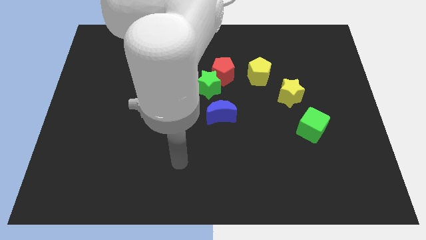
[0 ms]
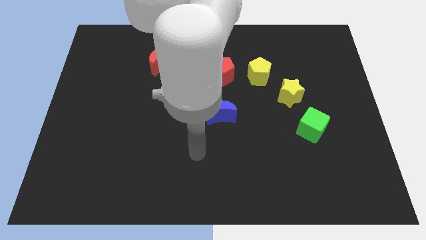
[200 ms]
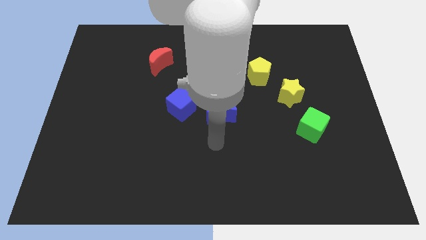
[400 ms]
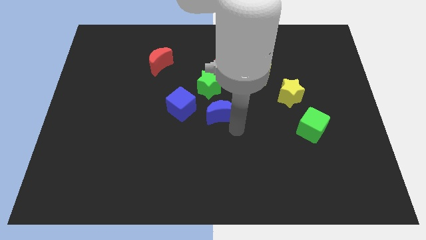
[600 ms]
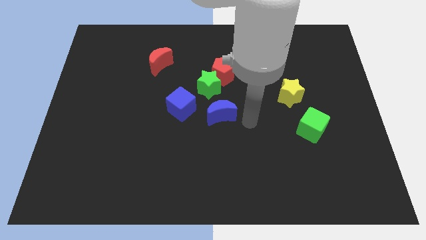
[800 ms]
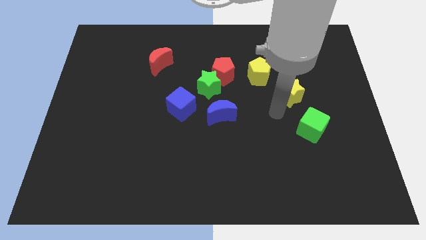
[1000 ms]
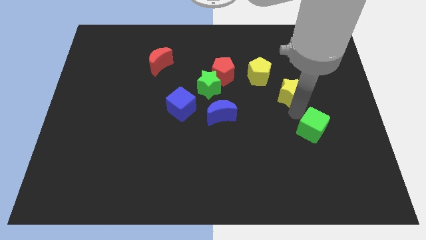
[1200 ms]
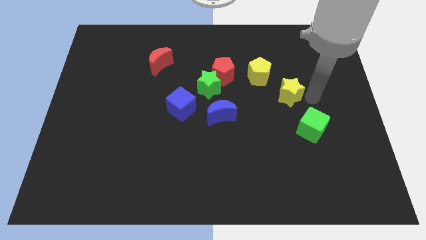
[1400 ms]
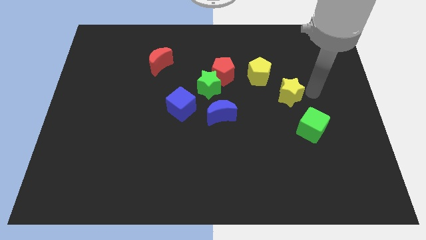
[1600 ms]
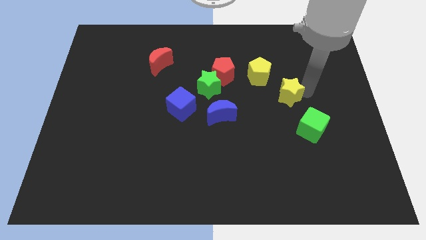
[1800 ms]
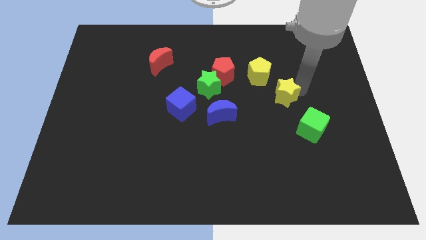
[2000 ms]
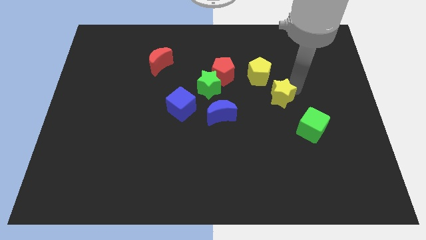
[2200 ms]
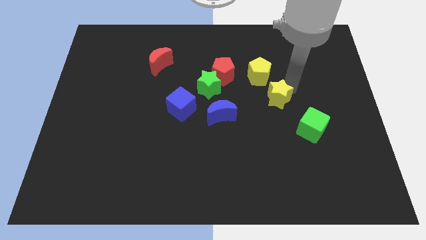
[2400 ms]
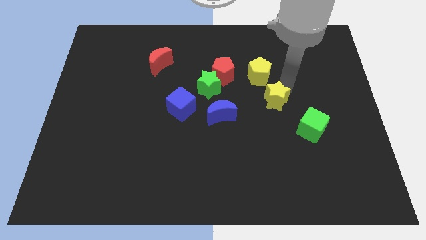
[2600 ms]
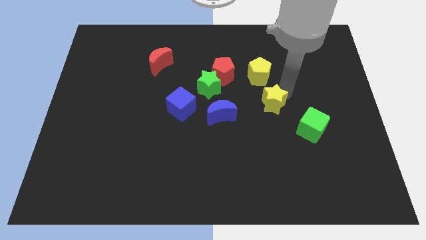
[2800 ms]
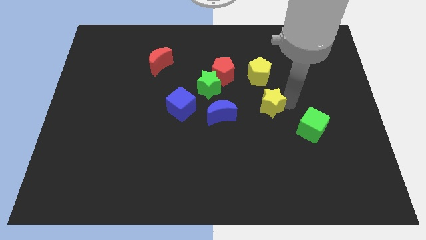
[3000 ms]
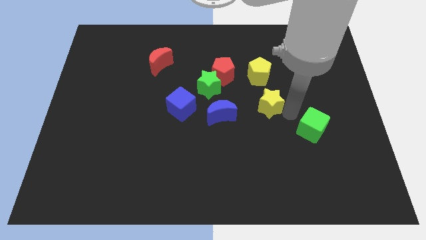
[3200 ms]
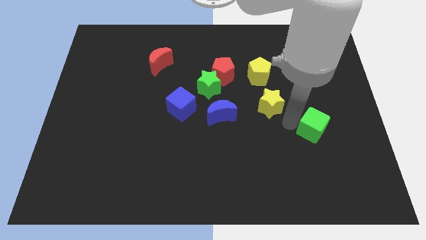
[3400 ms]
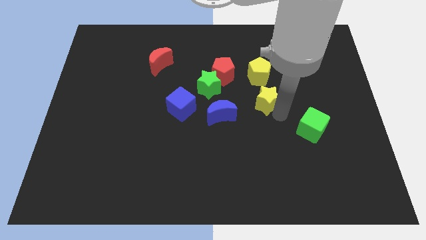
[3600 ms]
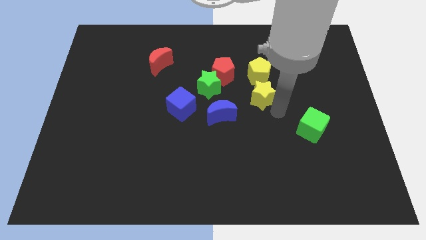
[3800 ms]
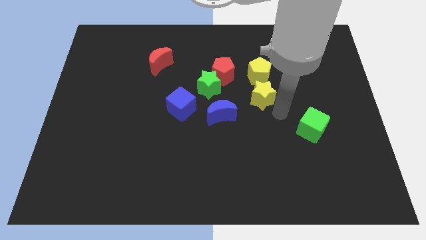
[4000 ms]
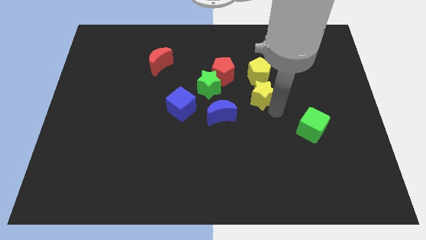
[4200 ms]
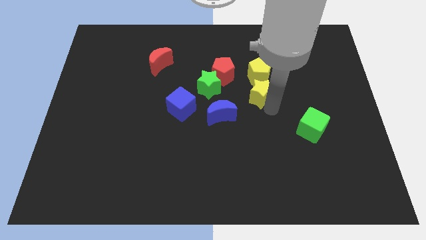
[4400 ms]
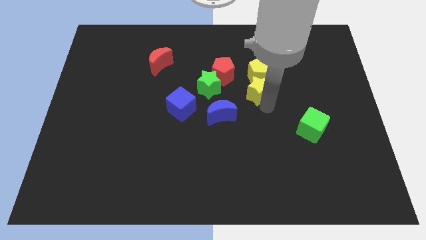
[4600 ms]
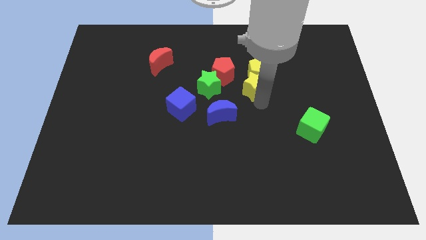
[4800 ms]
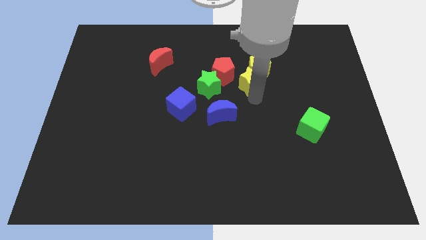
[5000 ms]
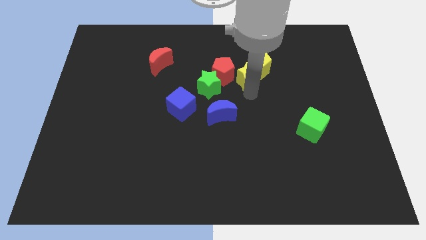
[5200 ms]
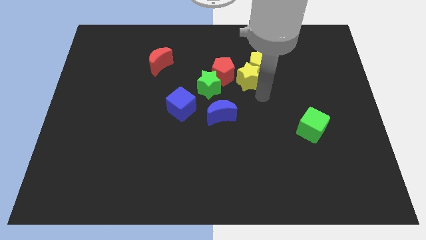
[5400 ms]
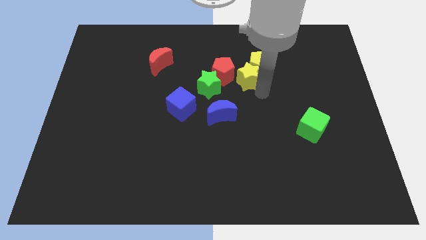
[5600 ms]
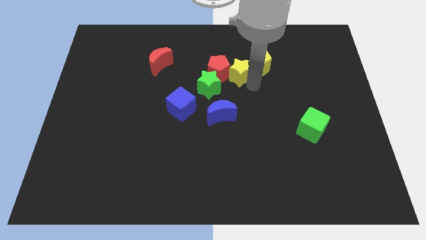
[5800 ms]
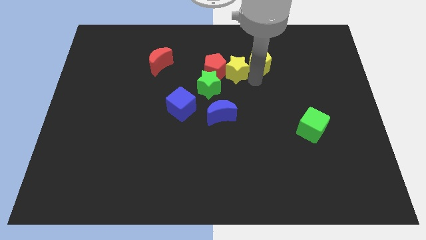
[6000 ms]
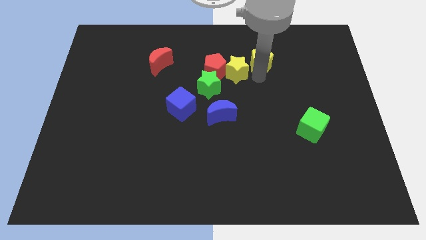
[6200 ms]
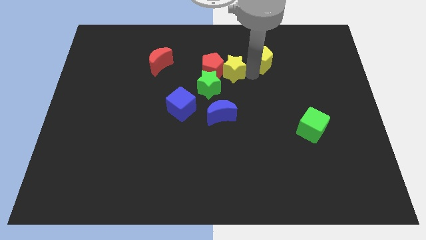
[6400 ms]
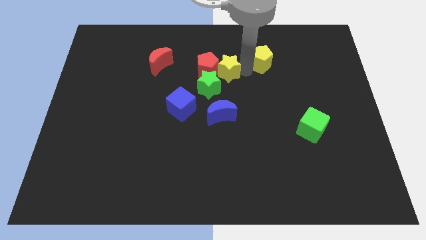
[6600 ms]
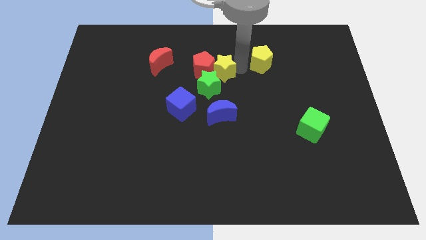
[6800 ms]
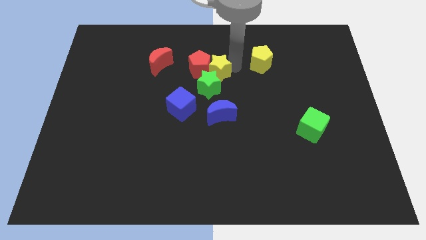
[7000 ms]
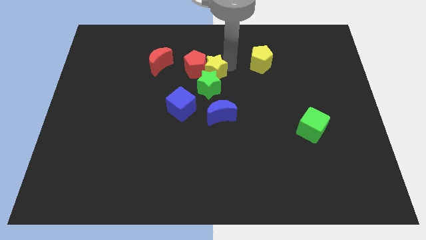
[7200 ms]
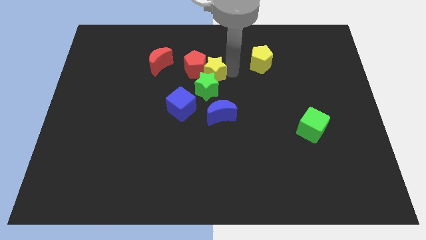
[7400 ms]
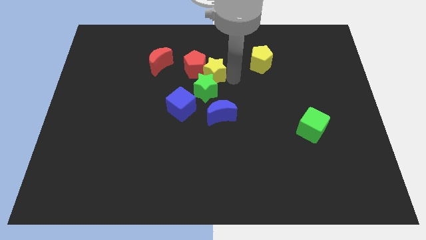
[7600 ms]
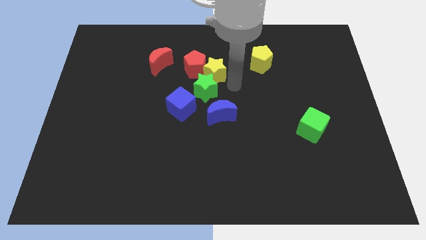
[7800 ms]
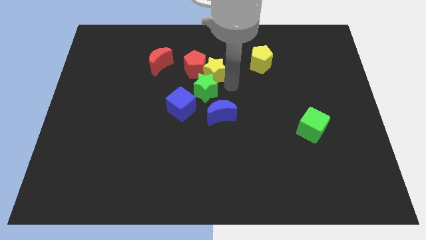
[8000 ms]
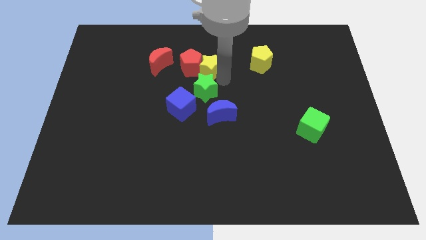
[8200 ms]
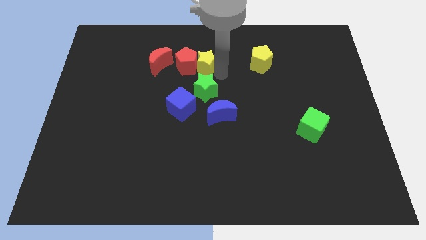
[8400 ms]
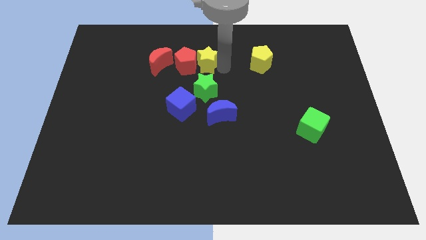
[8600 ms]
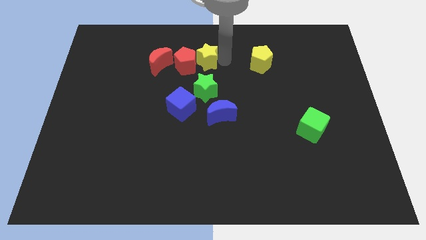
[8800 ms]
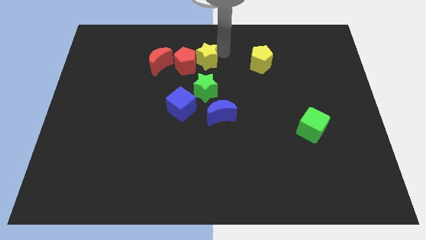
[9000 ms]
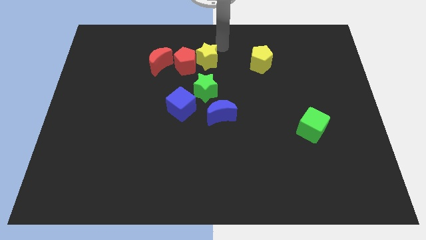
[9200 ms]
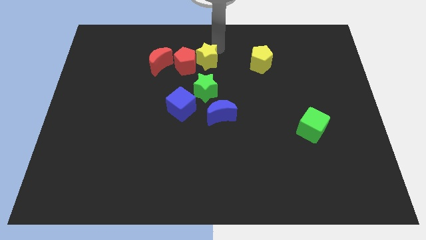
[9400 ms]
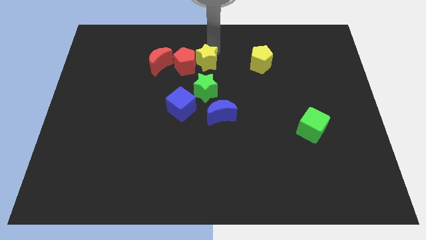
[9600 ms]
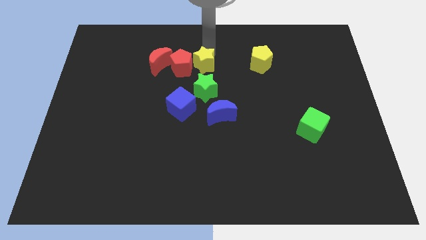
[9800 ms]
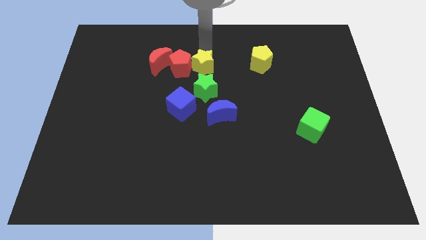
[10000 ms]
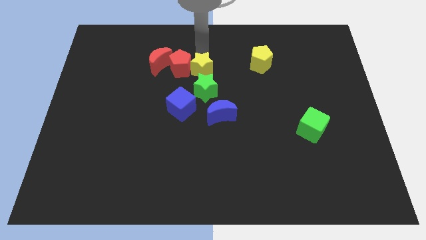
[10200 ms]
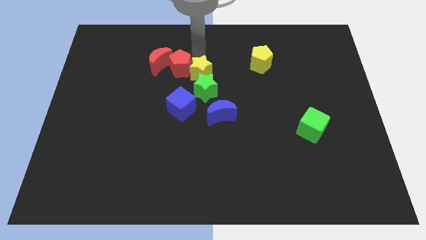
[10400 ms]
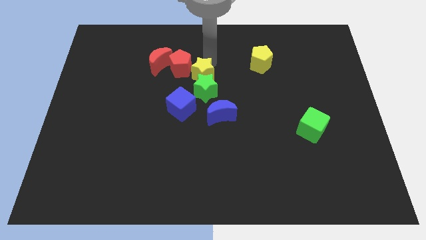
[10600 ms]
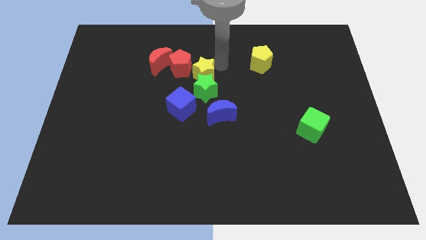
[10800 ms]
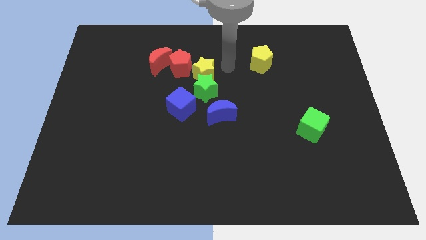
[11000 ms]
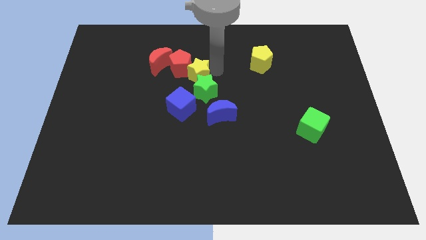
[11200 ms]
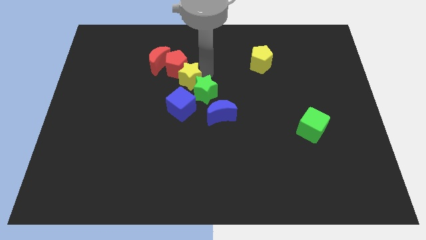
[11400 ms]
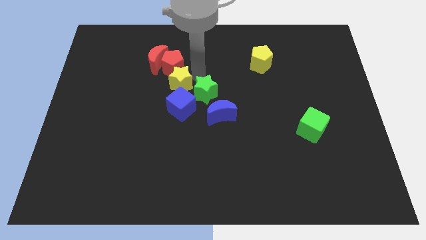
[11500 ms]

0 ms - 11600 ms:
put the yellow star diagonally up and to the left of the blue cube

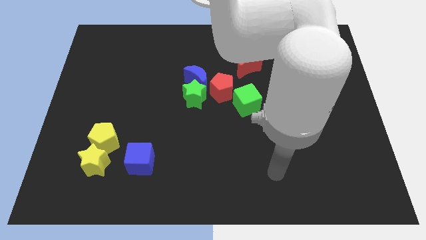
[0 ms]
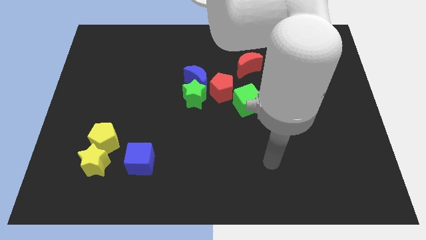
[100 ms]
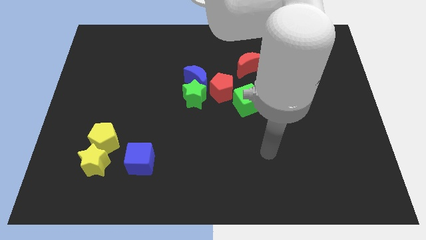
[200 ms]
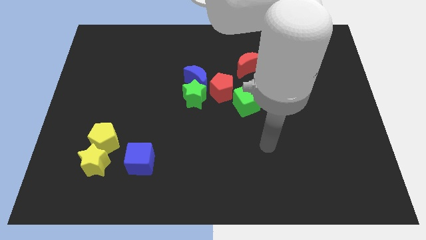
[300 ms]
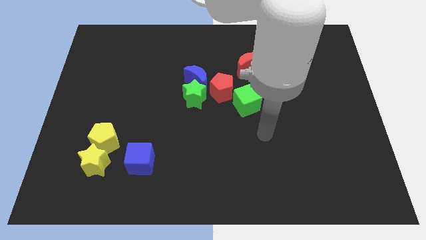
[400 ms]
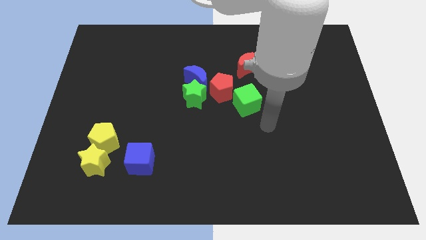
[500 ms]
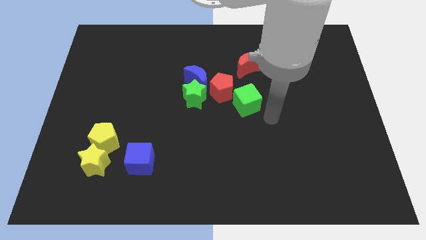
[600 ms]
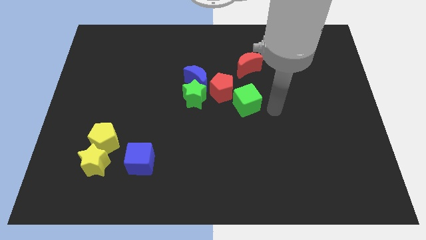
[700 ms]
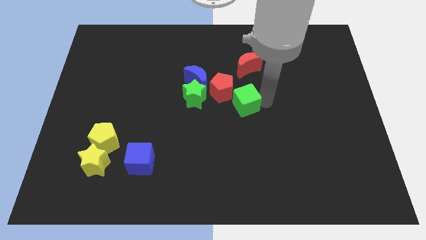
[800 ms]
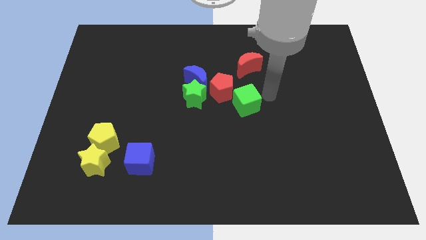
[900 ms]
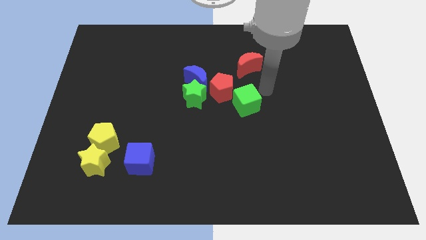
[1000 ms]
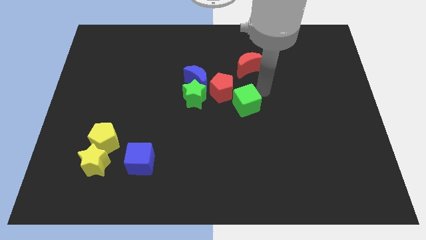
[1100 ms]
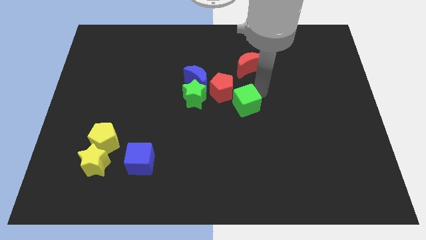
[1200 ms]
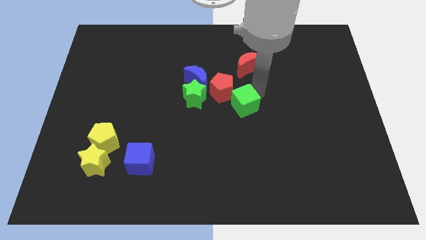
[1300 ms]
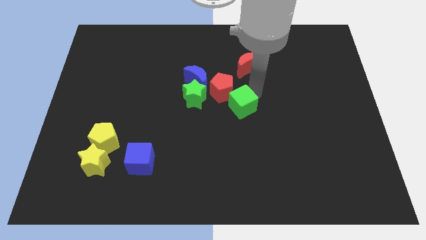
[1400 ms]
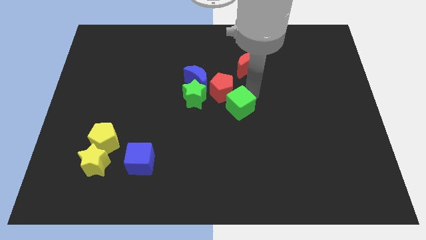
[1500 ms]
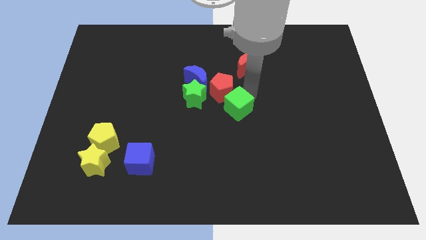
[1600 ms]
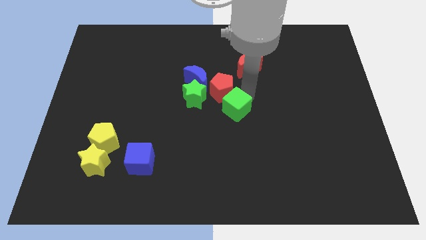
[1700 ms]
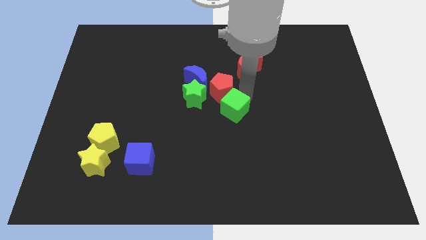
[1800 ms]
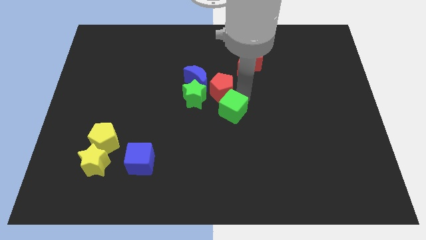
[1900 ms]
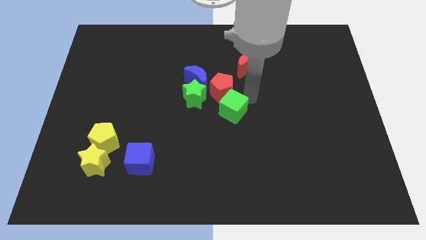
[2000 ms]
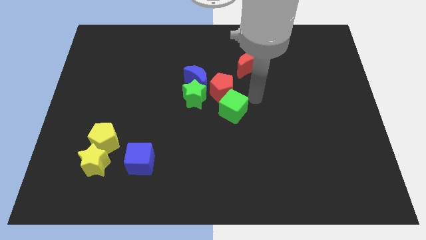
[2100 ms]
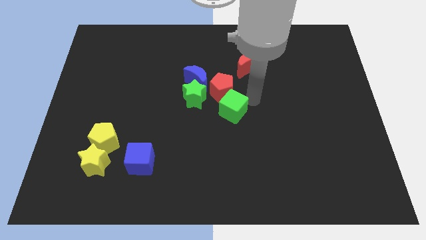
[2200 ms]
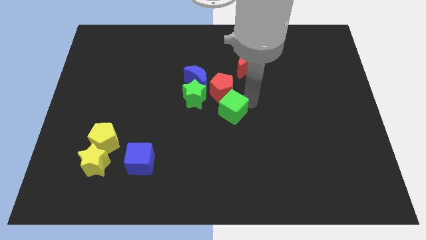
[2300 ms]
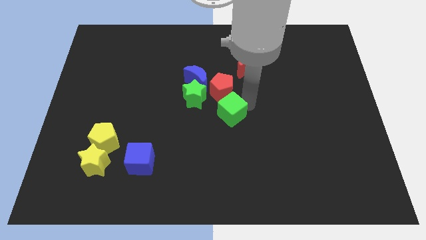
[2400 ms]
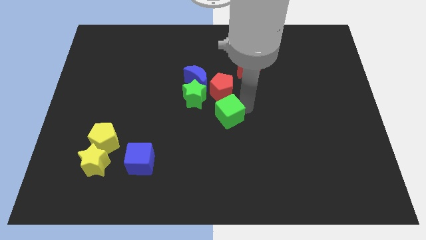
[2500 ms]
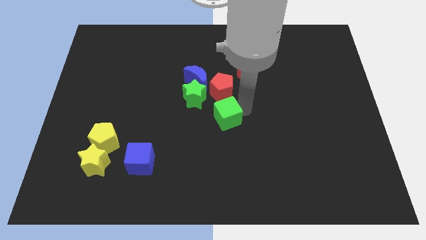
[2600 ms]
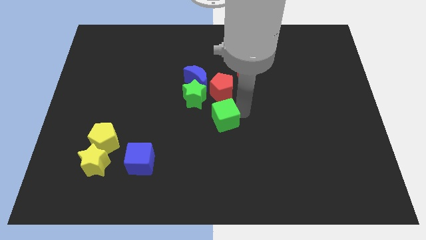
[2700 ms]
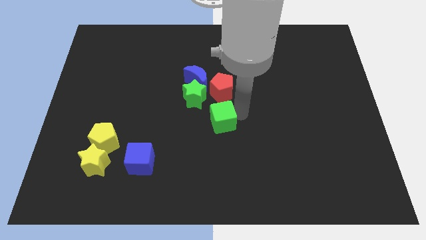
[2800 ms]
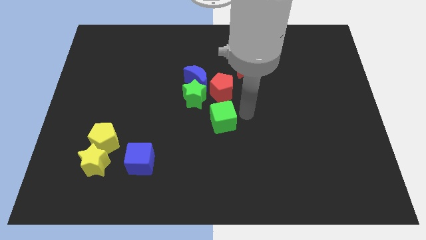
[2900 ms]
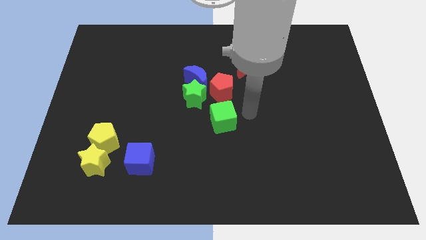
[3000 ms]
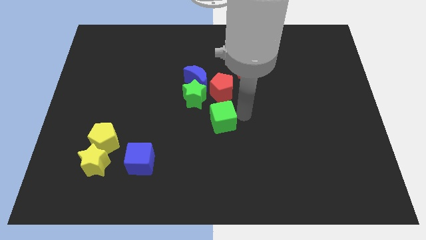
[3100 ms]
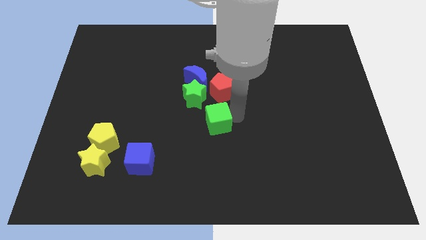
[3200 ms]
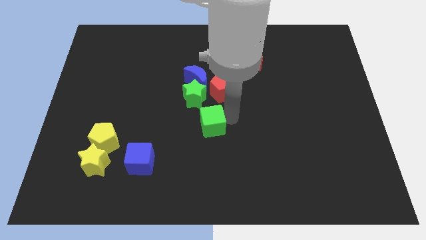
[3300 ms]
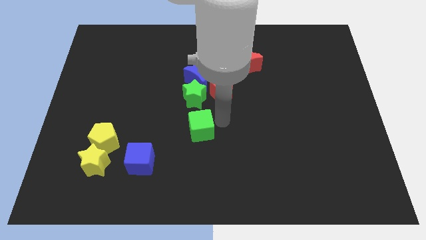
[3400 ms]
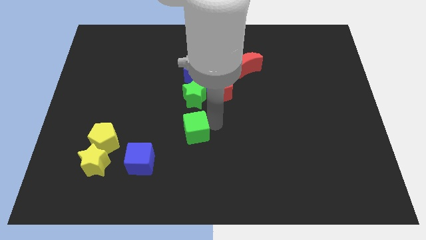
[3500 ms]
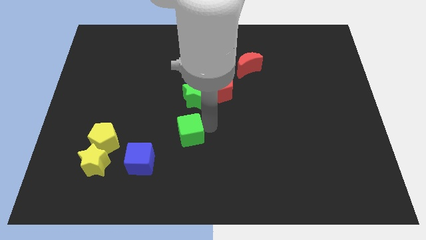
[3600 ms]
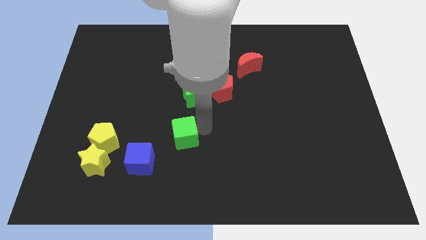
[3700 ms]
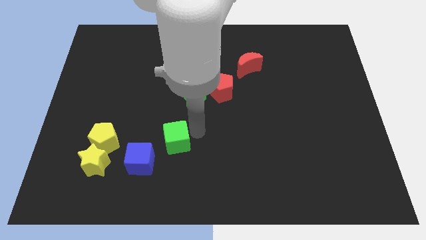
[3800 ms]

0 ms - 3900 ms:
push the green cube to the right side of the yellow pentagon
